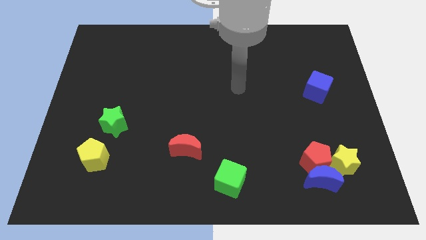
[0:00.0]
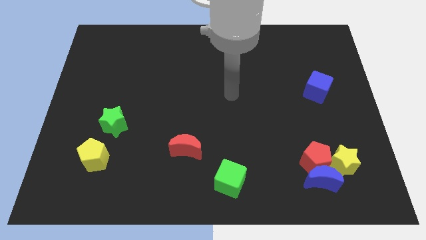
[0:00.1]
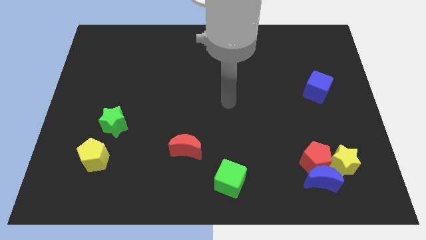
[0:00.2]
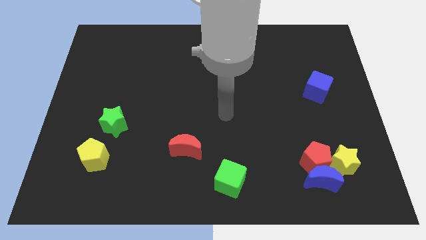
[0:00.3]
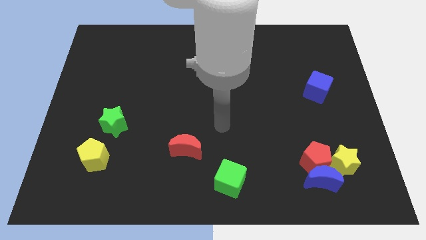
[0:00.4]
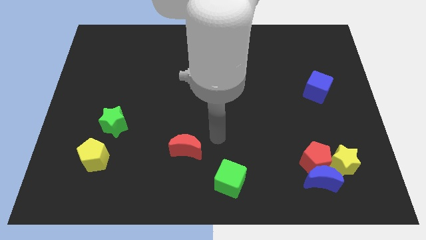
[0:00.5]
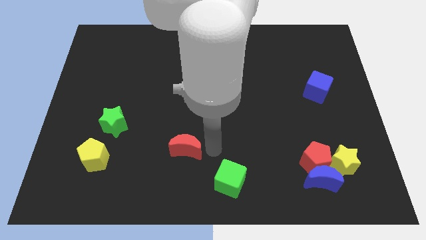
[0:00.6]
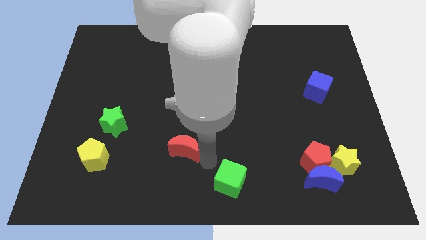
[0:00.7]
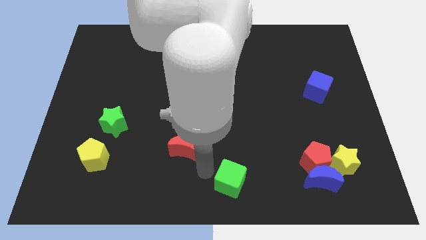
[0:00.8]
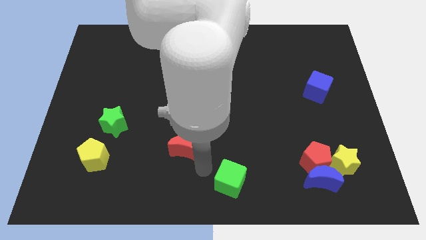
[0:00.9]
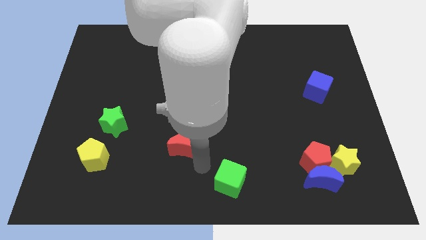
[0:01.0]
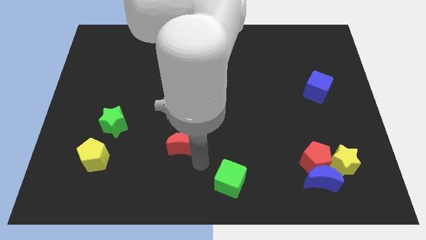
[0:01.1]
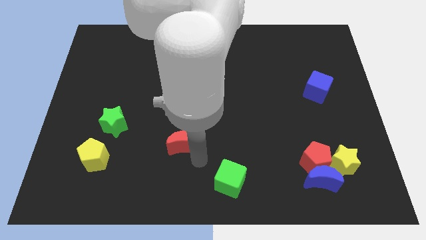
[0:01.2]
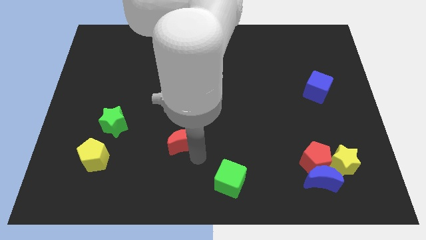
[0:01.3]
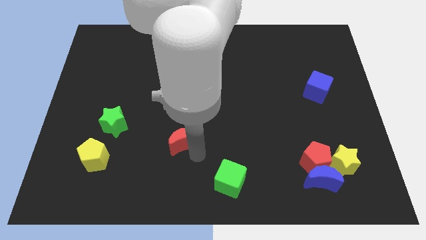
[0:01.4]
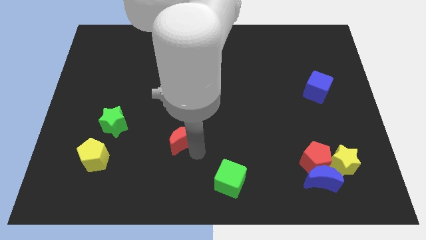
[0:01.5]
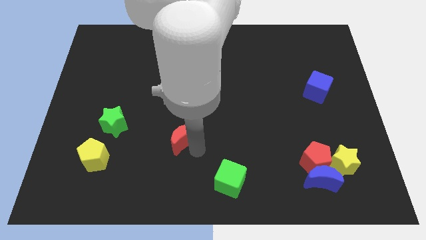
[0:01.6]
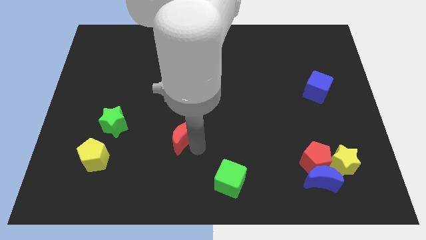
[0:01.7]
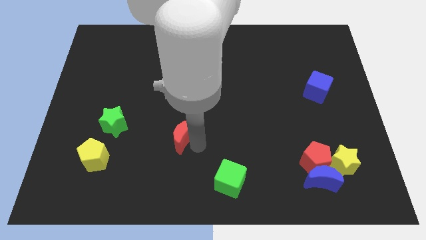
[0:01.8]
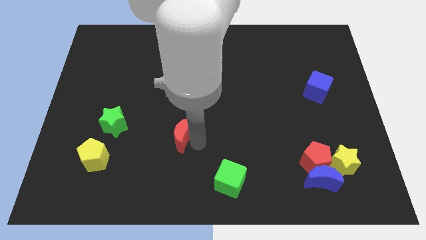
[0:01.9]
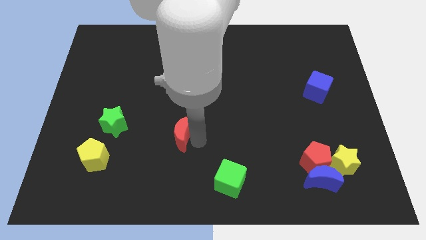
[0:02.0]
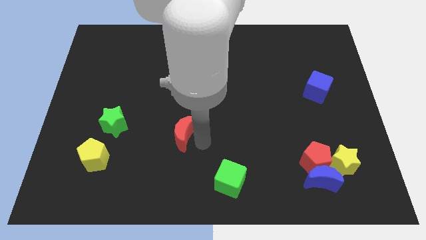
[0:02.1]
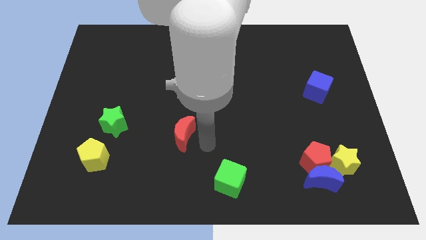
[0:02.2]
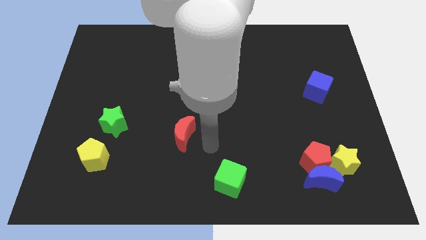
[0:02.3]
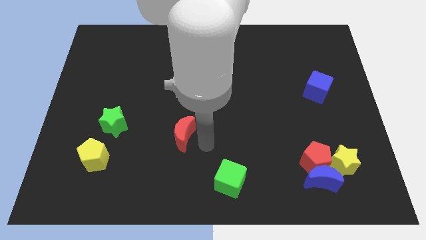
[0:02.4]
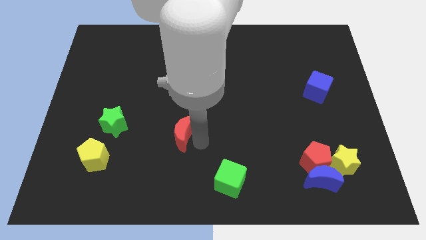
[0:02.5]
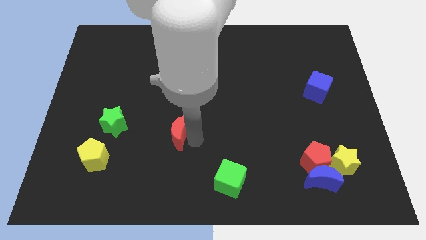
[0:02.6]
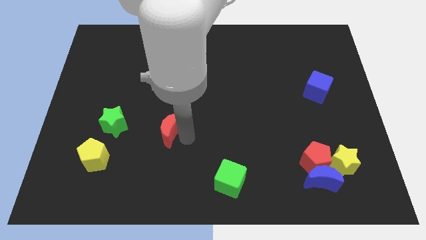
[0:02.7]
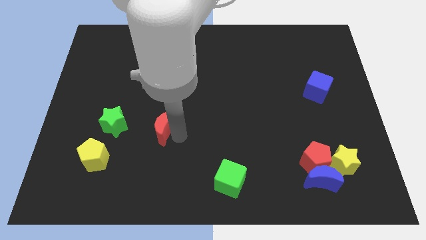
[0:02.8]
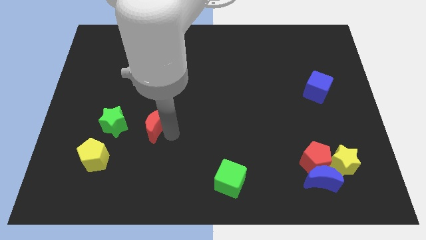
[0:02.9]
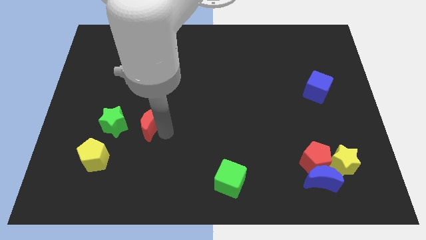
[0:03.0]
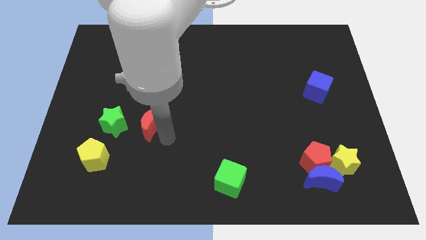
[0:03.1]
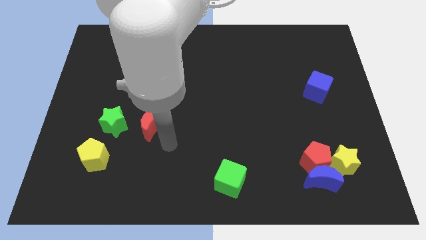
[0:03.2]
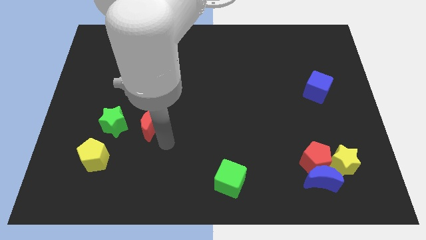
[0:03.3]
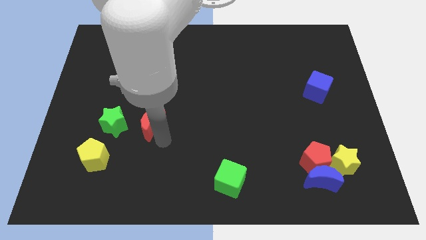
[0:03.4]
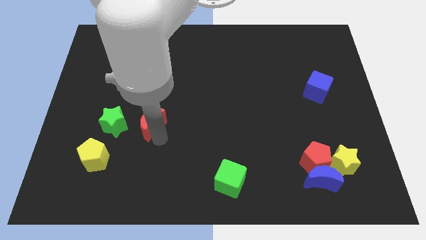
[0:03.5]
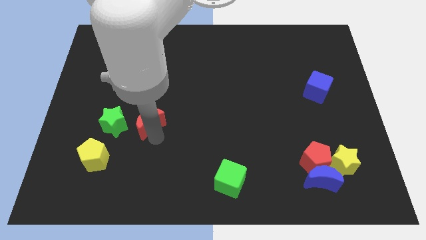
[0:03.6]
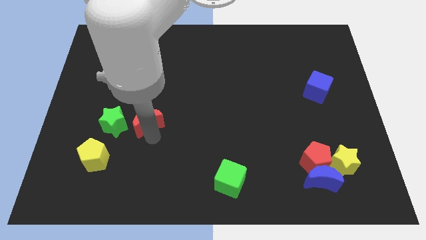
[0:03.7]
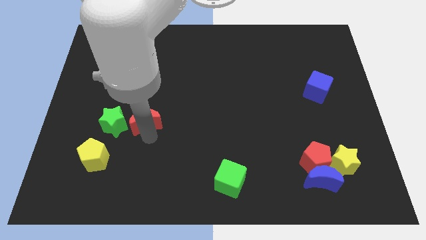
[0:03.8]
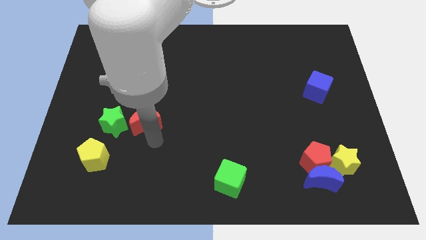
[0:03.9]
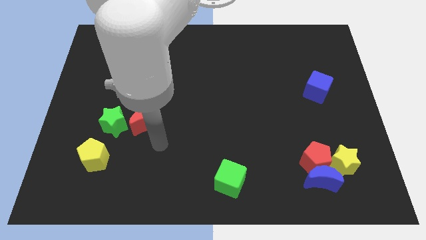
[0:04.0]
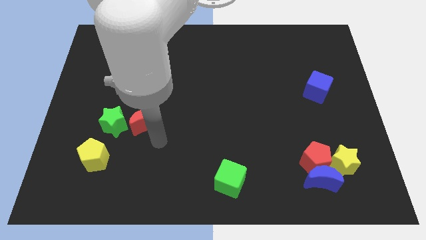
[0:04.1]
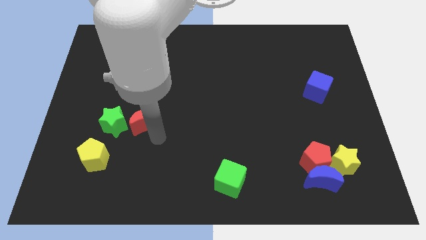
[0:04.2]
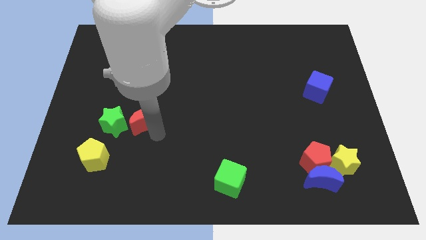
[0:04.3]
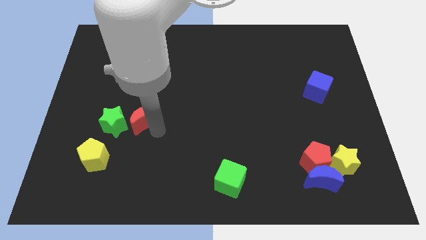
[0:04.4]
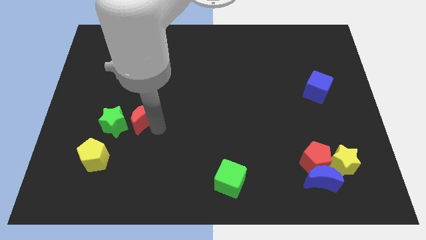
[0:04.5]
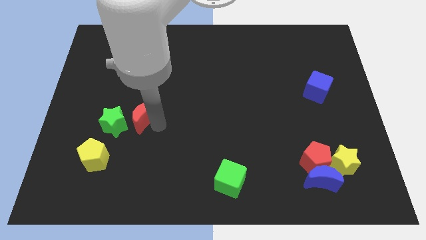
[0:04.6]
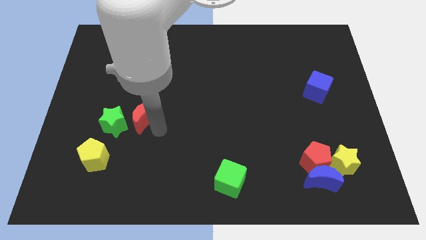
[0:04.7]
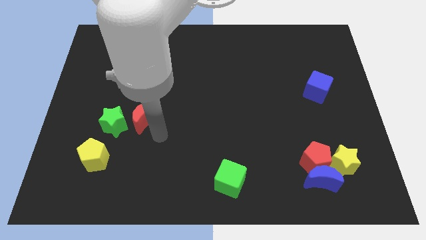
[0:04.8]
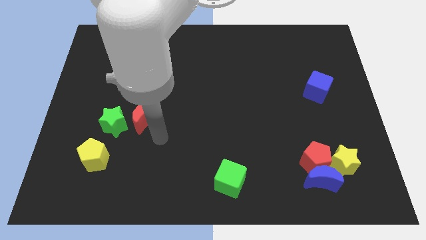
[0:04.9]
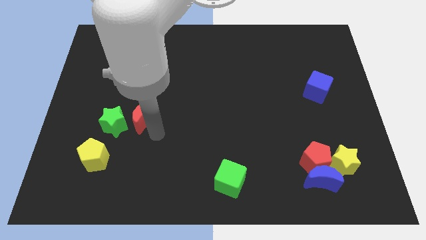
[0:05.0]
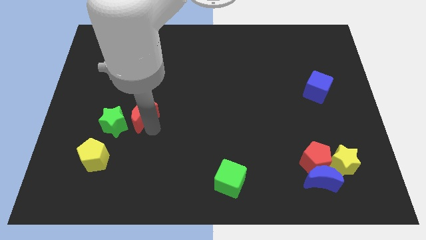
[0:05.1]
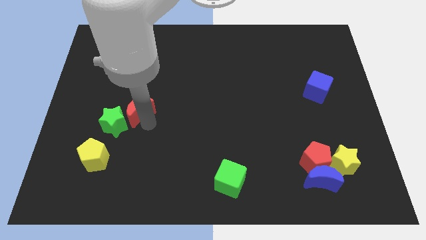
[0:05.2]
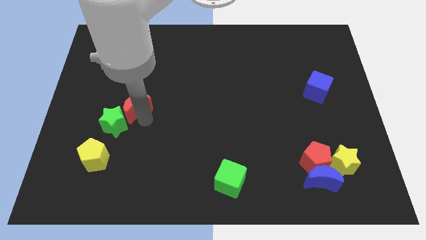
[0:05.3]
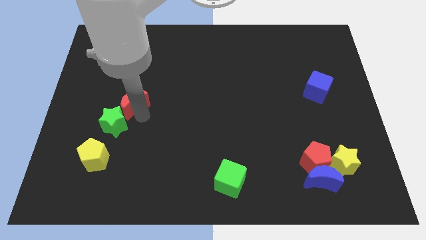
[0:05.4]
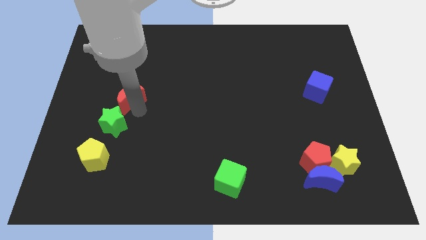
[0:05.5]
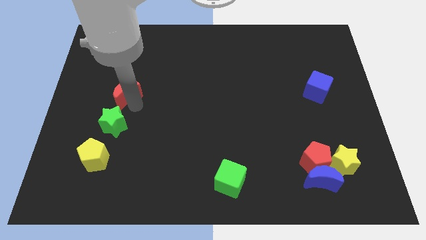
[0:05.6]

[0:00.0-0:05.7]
move the red moon up and left

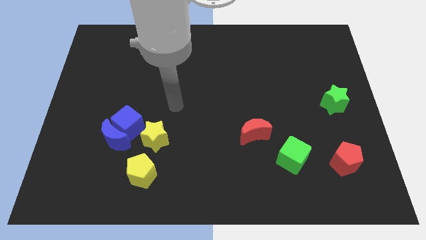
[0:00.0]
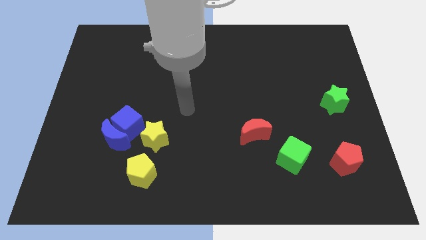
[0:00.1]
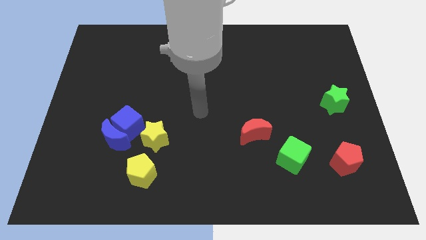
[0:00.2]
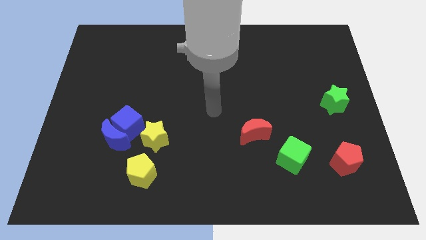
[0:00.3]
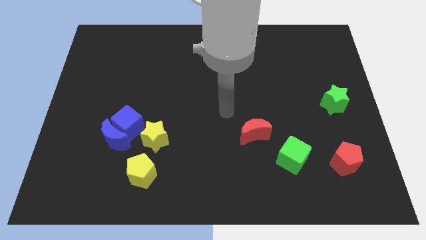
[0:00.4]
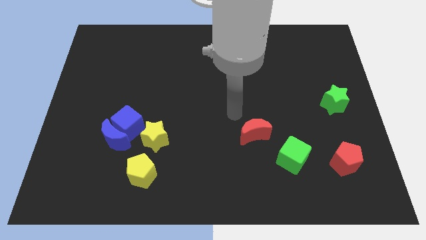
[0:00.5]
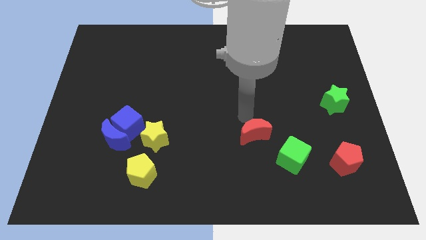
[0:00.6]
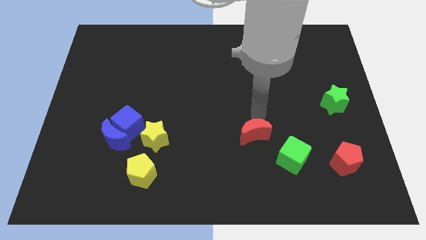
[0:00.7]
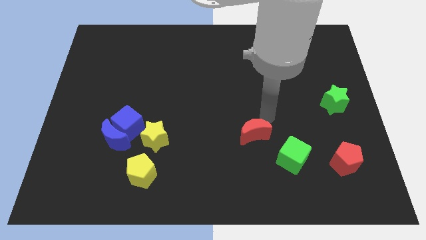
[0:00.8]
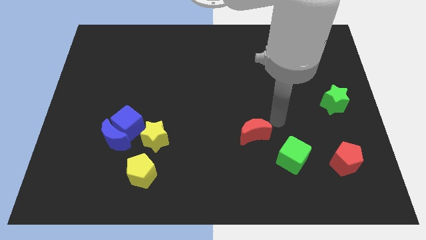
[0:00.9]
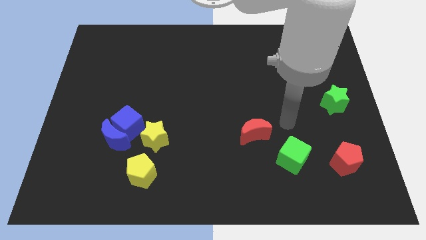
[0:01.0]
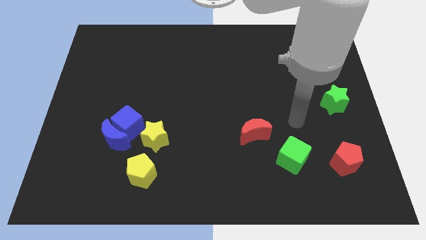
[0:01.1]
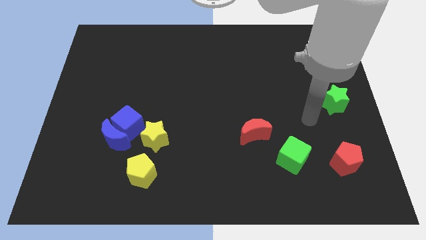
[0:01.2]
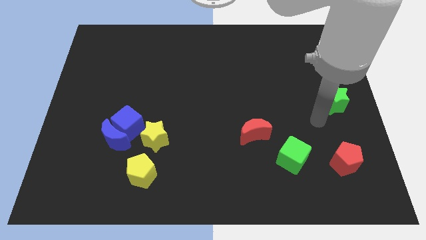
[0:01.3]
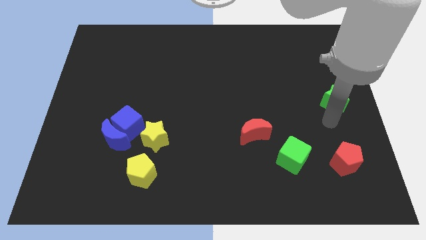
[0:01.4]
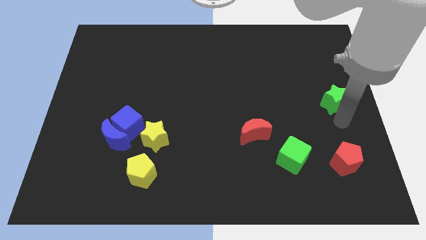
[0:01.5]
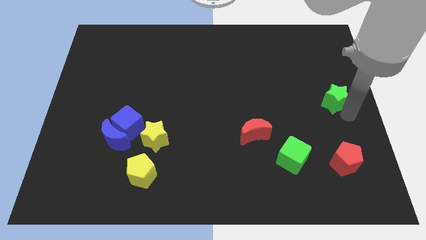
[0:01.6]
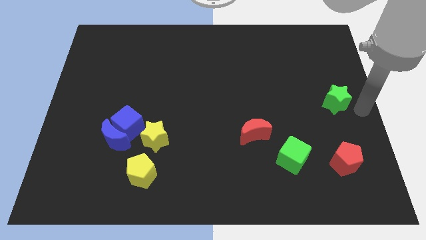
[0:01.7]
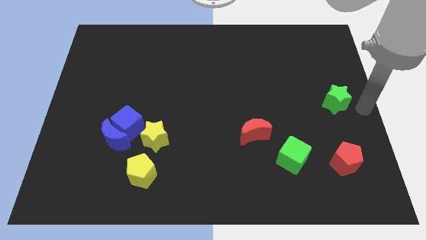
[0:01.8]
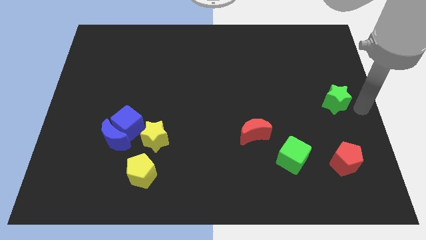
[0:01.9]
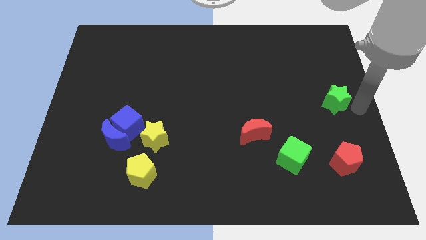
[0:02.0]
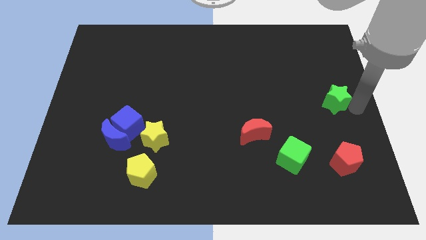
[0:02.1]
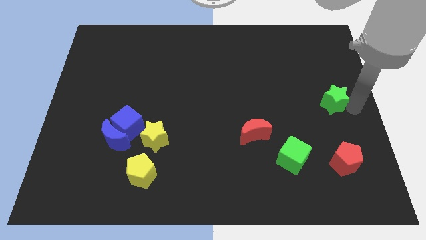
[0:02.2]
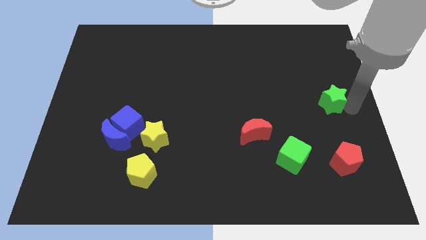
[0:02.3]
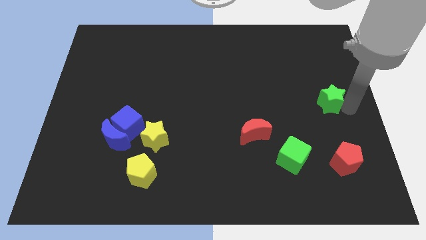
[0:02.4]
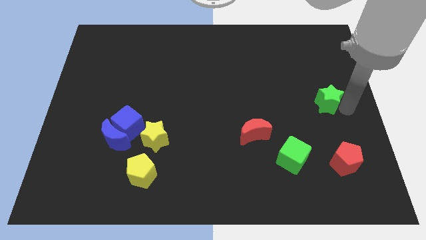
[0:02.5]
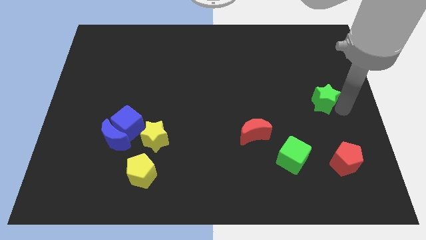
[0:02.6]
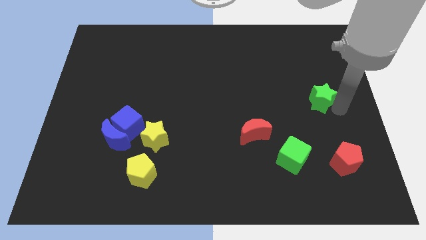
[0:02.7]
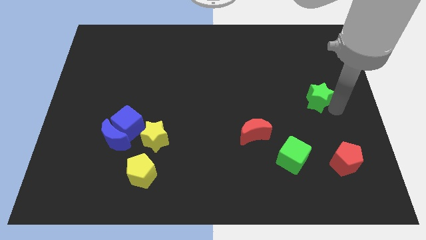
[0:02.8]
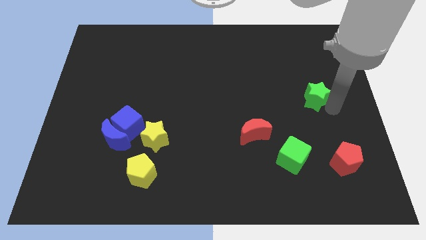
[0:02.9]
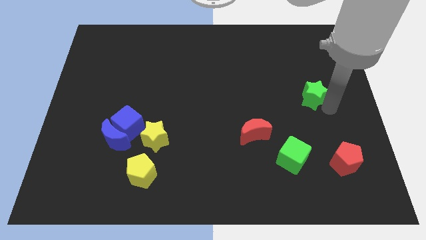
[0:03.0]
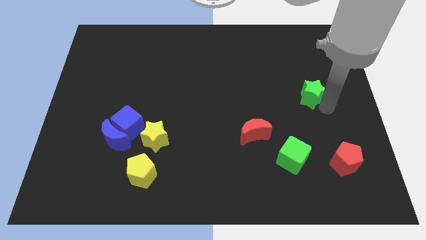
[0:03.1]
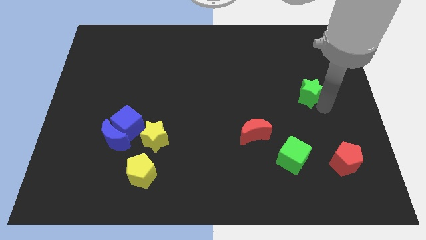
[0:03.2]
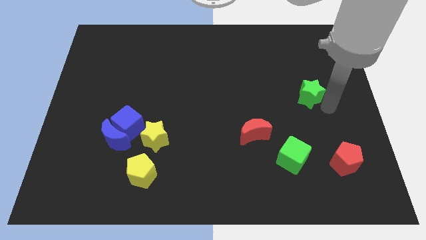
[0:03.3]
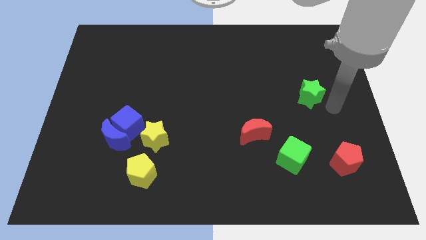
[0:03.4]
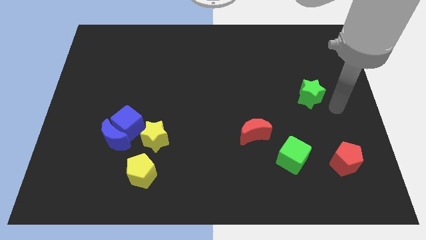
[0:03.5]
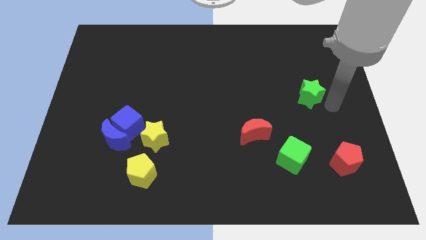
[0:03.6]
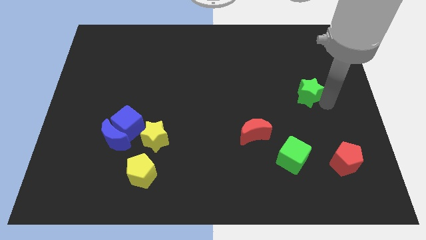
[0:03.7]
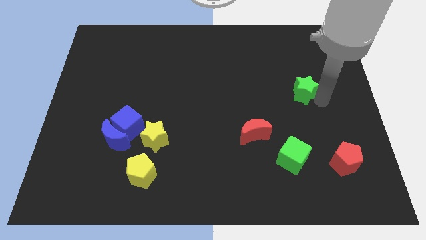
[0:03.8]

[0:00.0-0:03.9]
move the green star a little bit upwards and left
